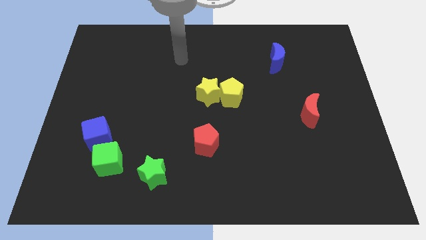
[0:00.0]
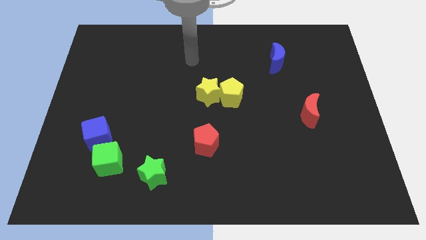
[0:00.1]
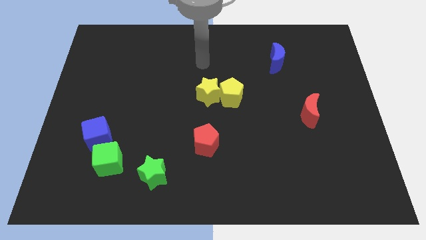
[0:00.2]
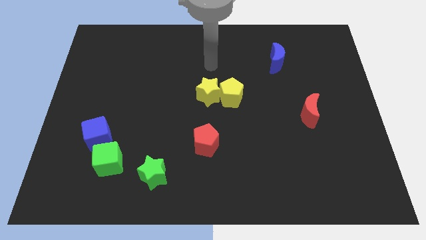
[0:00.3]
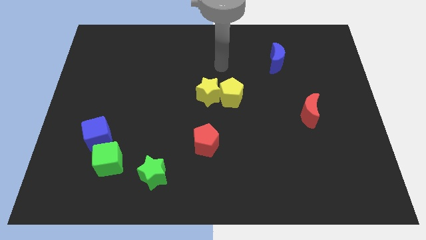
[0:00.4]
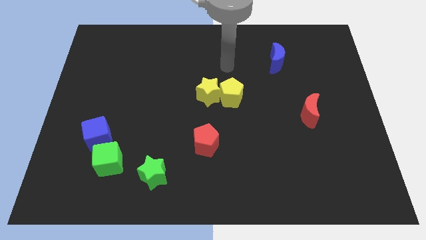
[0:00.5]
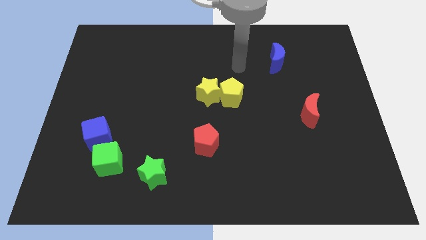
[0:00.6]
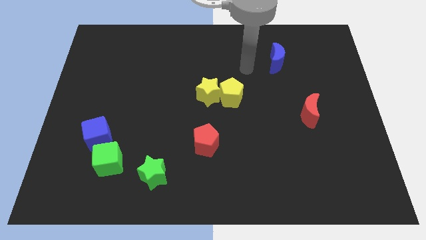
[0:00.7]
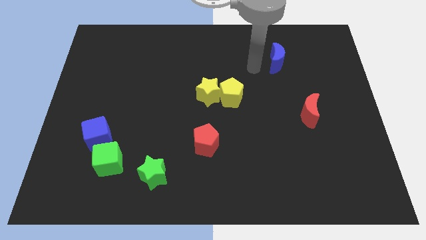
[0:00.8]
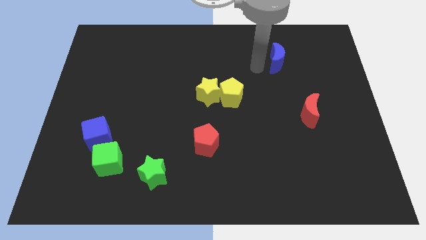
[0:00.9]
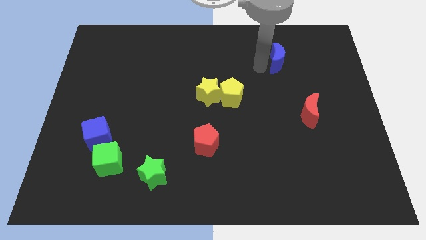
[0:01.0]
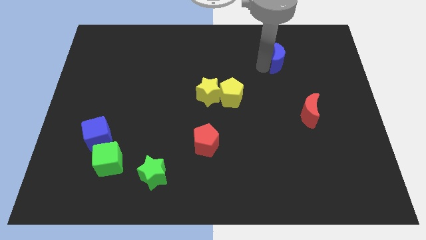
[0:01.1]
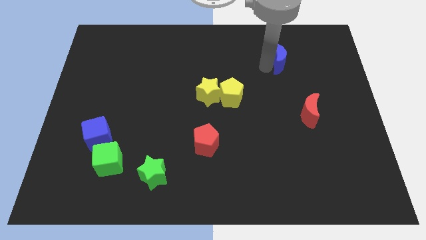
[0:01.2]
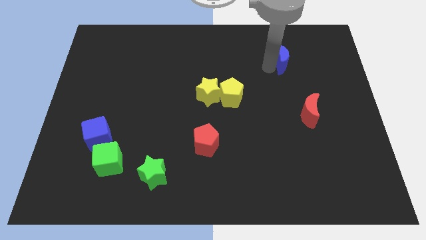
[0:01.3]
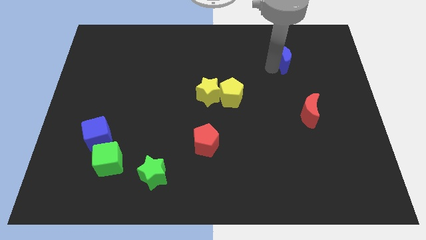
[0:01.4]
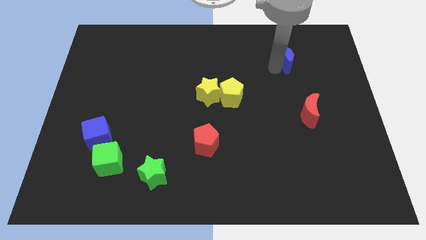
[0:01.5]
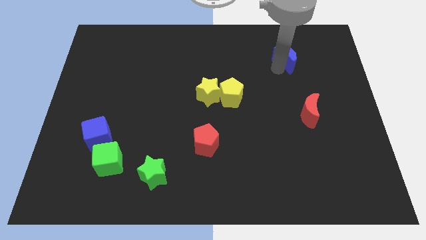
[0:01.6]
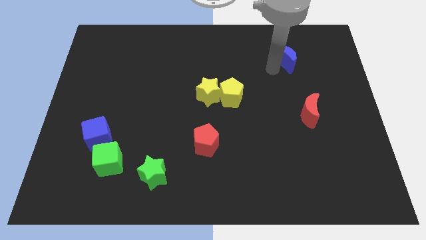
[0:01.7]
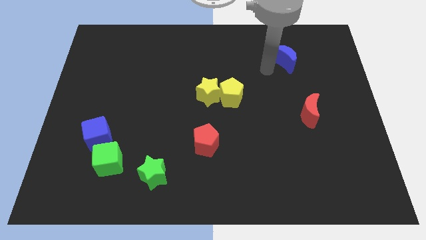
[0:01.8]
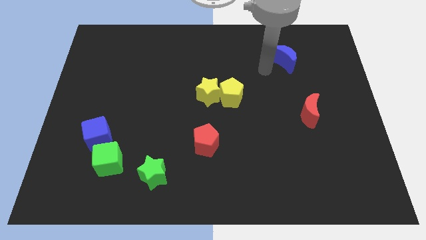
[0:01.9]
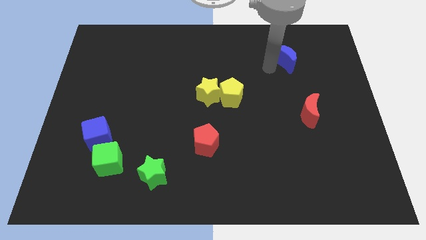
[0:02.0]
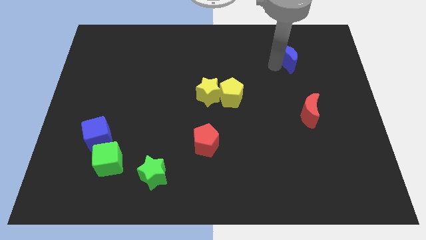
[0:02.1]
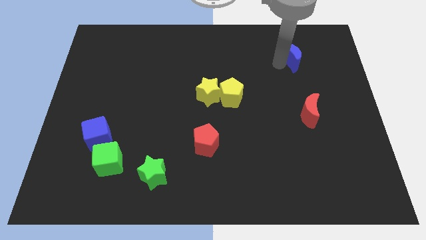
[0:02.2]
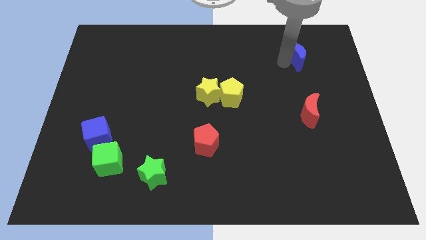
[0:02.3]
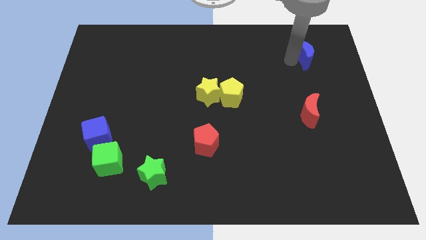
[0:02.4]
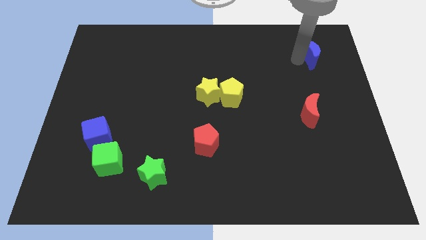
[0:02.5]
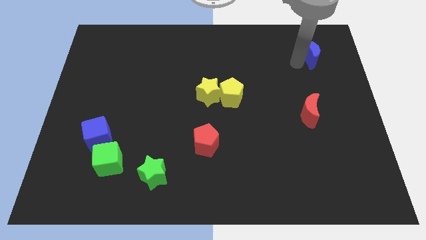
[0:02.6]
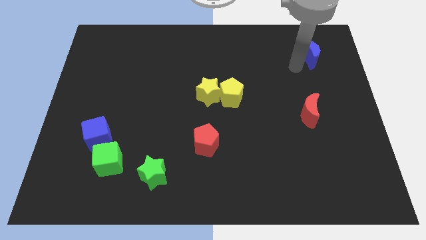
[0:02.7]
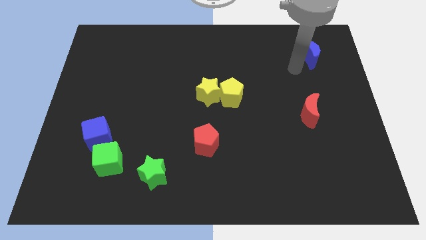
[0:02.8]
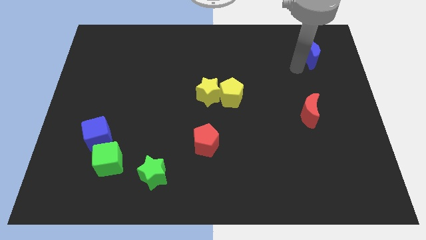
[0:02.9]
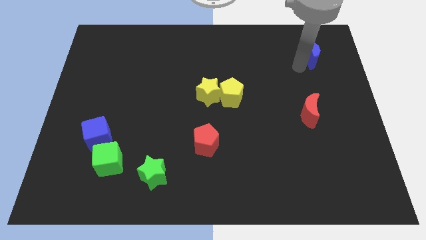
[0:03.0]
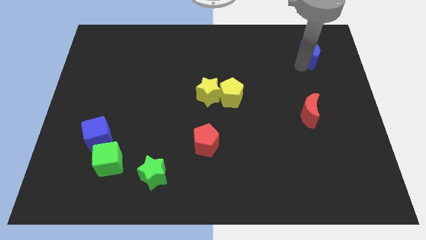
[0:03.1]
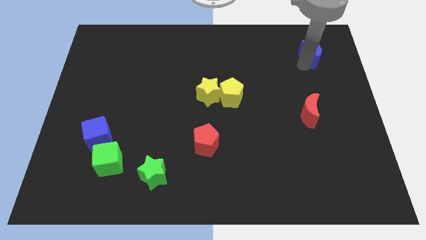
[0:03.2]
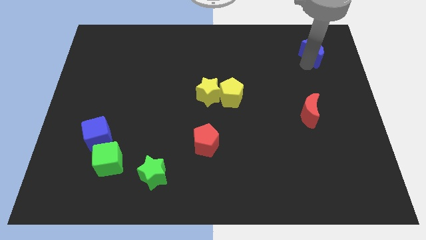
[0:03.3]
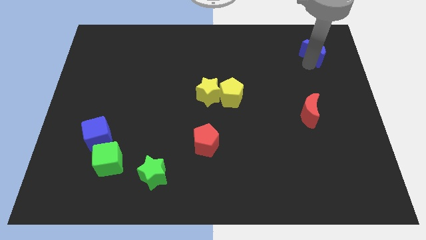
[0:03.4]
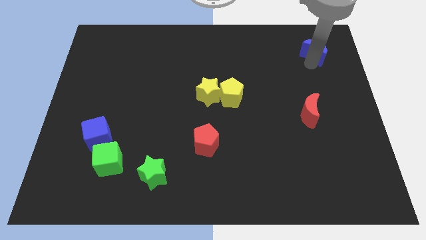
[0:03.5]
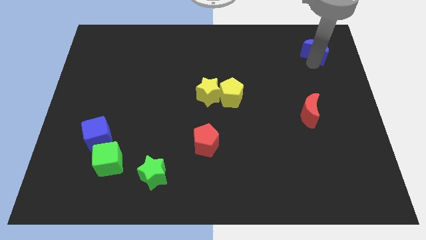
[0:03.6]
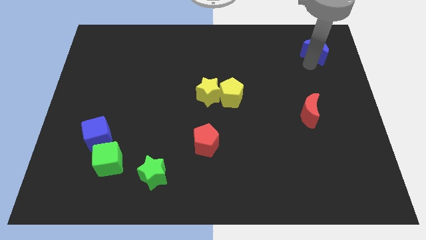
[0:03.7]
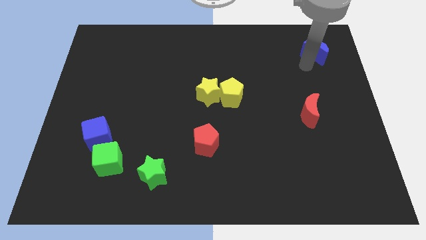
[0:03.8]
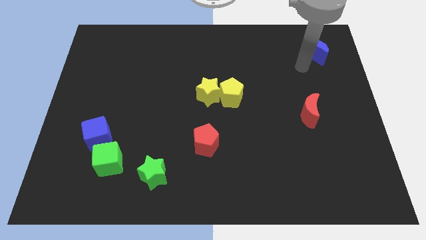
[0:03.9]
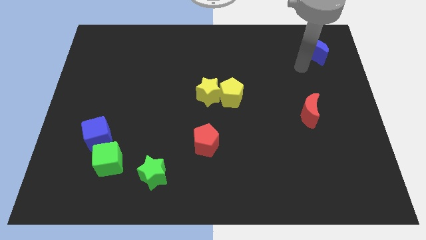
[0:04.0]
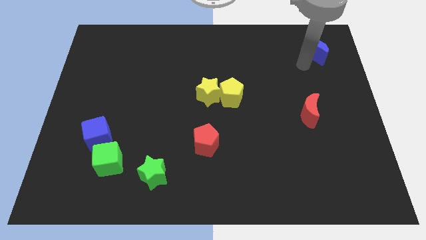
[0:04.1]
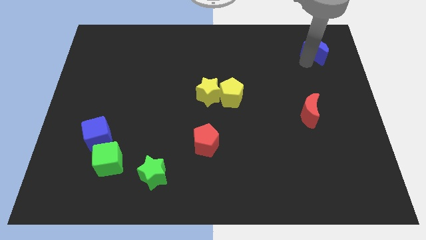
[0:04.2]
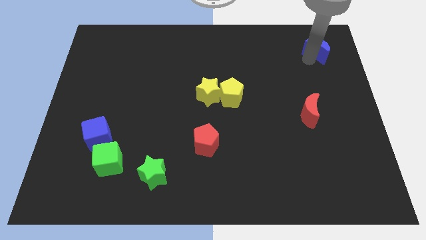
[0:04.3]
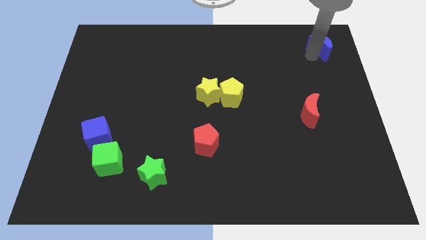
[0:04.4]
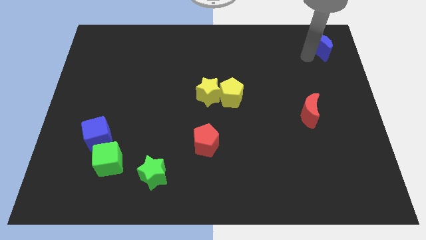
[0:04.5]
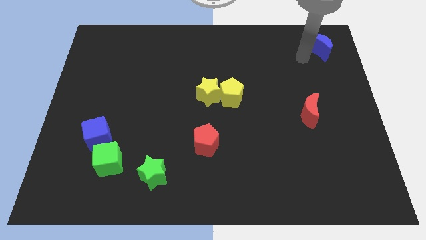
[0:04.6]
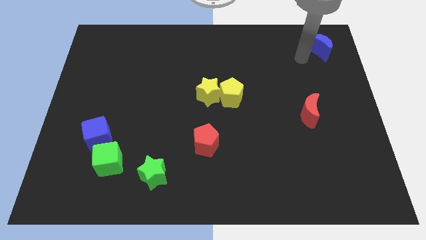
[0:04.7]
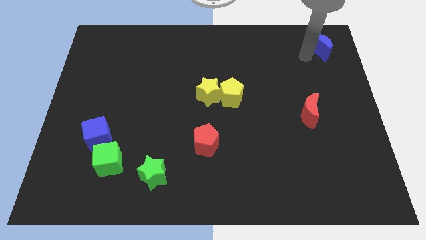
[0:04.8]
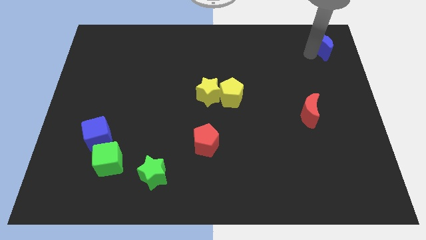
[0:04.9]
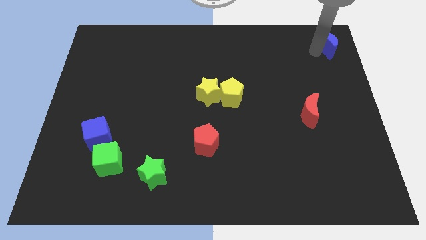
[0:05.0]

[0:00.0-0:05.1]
put the blue moon to the top right of the board

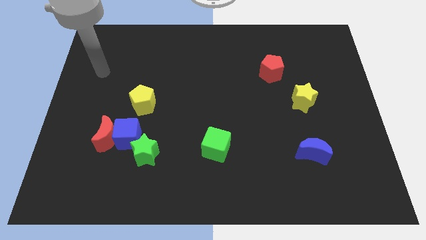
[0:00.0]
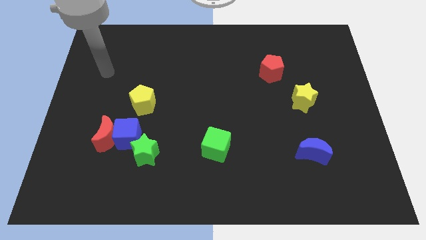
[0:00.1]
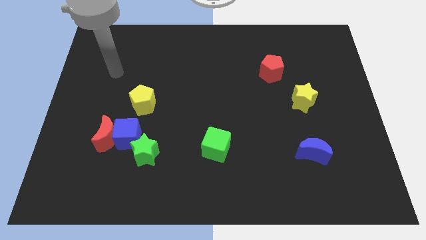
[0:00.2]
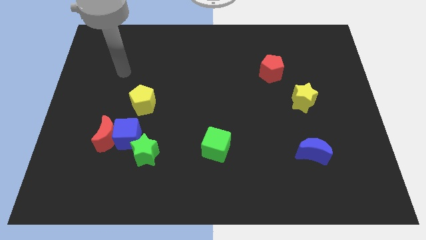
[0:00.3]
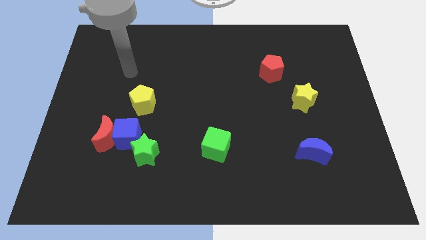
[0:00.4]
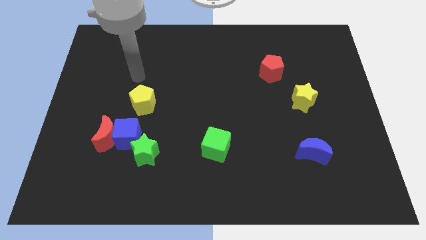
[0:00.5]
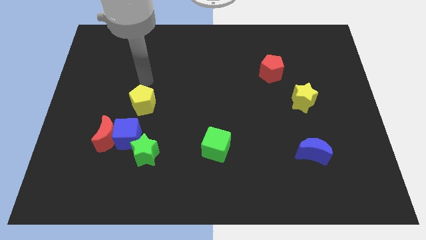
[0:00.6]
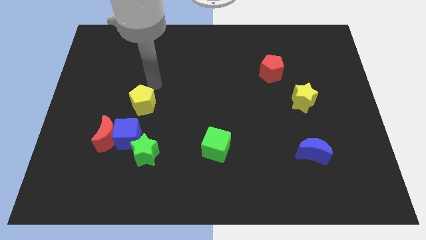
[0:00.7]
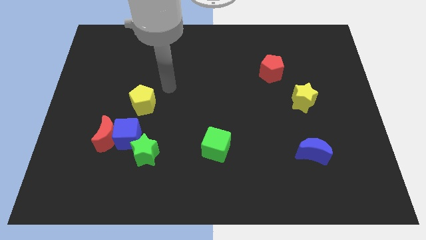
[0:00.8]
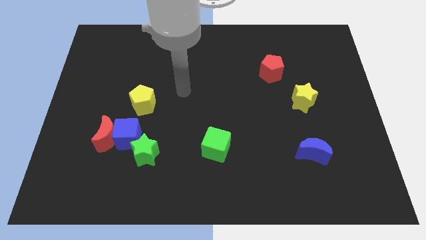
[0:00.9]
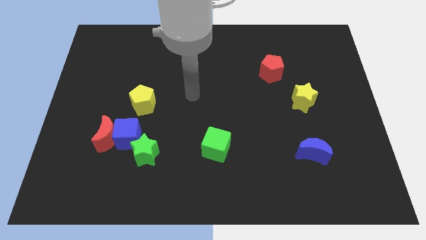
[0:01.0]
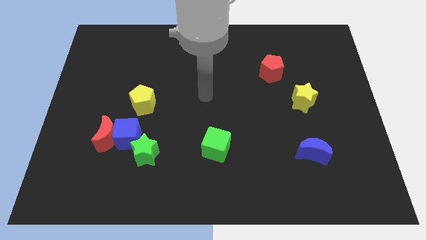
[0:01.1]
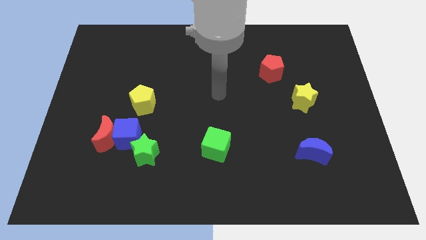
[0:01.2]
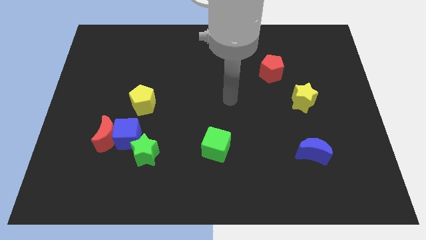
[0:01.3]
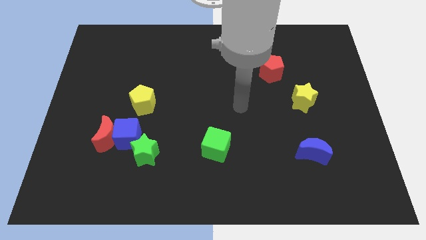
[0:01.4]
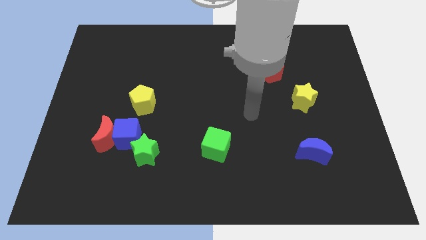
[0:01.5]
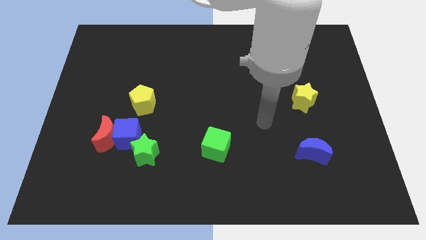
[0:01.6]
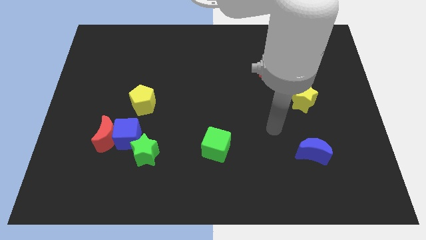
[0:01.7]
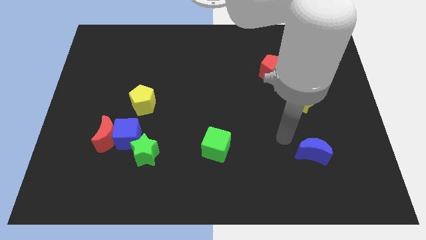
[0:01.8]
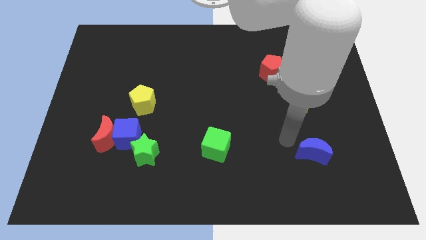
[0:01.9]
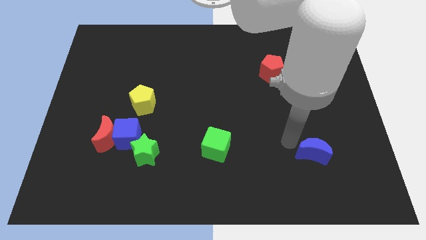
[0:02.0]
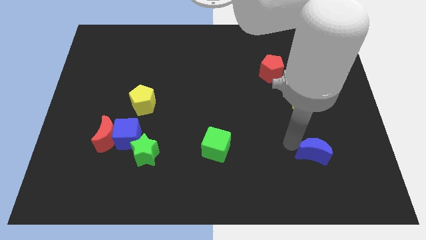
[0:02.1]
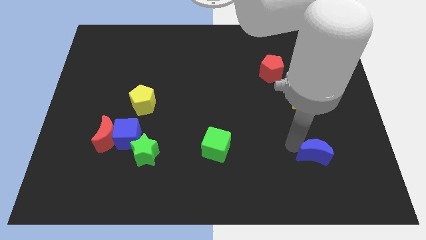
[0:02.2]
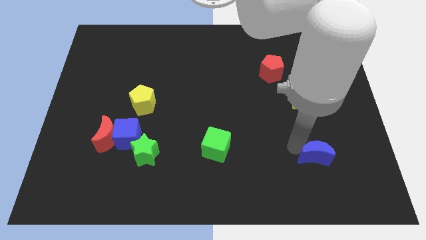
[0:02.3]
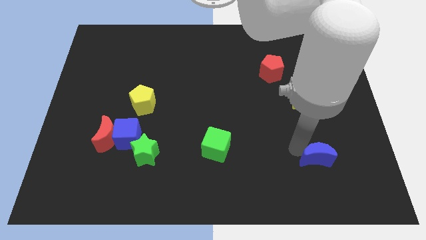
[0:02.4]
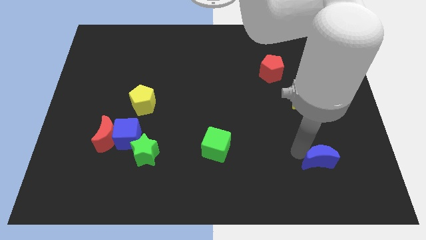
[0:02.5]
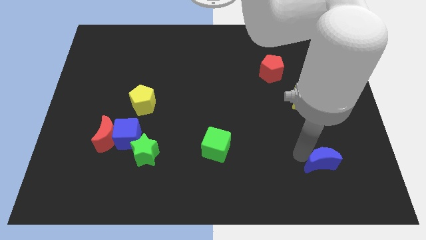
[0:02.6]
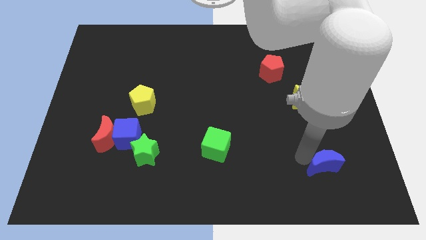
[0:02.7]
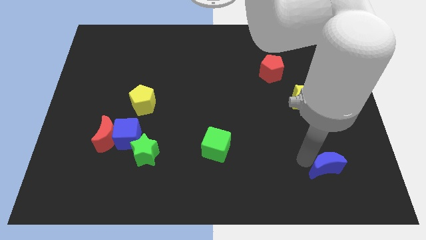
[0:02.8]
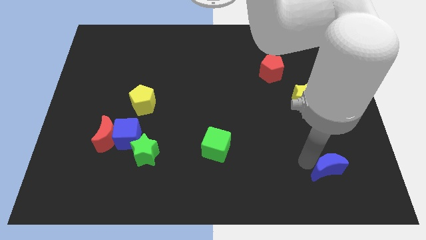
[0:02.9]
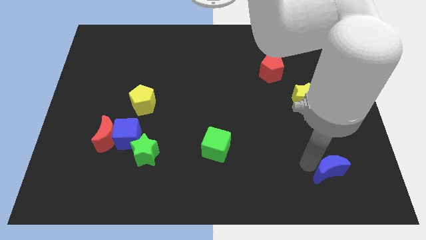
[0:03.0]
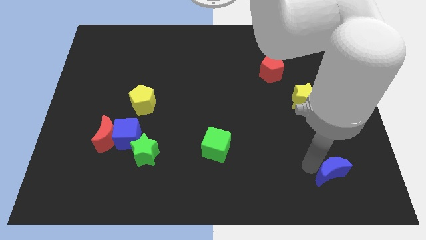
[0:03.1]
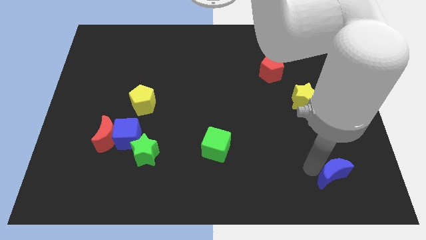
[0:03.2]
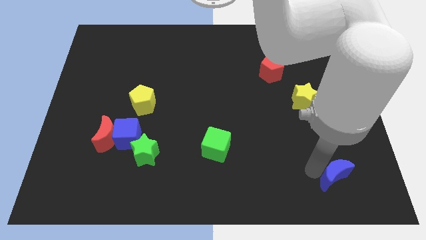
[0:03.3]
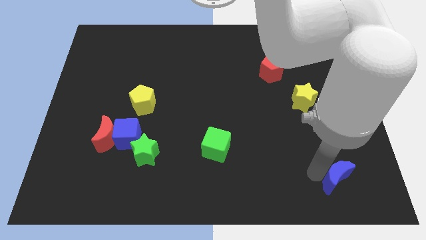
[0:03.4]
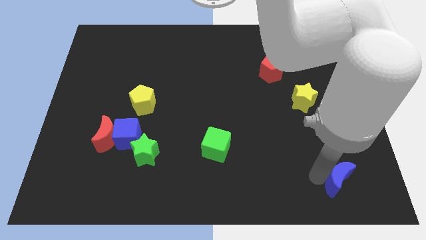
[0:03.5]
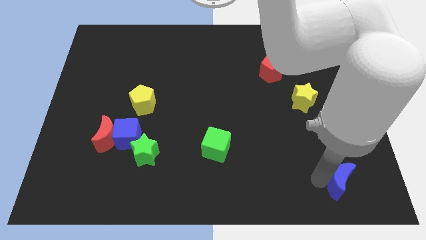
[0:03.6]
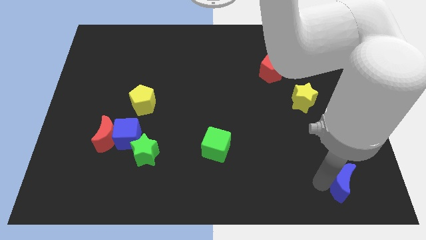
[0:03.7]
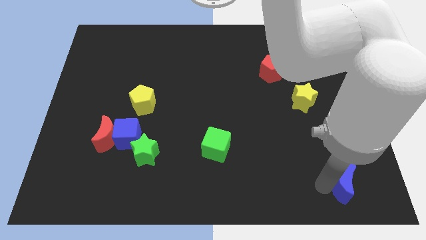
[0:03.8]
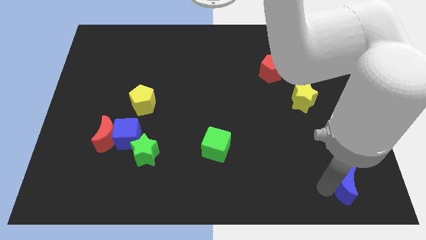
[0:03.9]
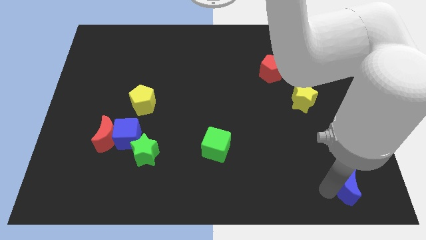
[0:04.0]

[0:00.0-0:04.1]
push the blue moon to the bottom right of the board
